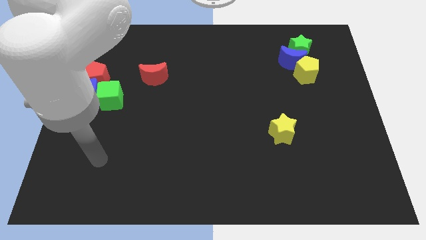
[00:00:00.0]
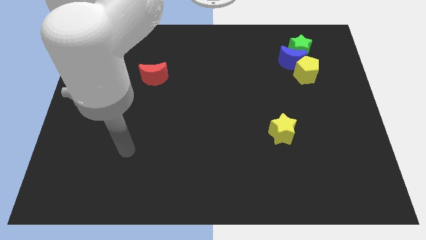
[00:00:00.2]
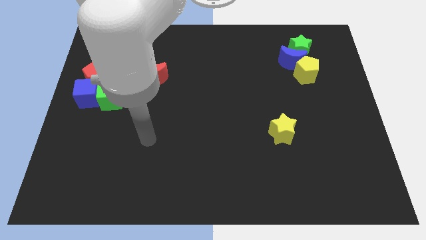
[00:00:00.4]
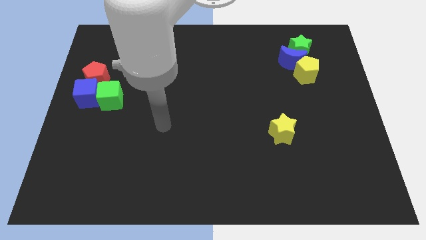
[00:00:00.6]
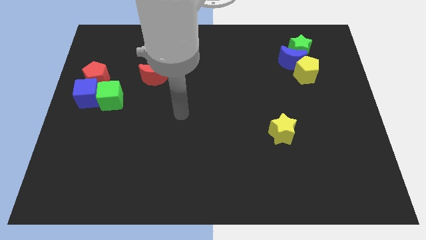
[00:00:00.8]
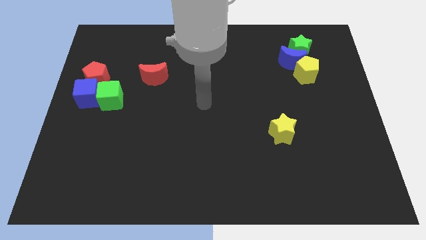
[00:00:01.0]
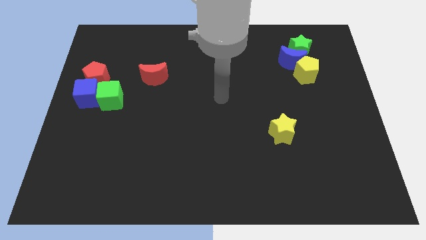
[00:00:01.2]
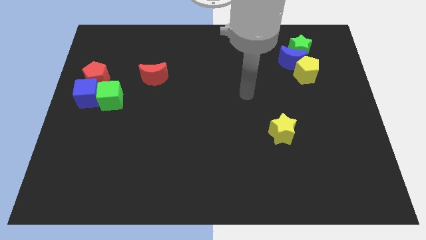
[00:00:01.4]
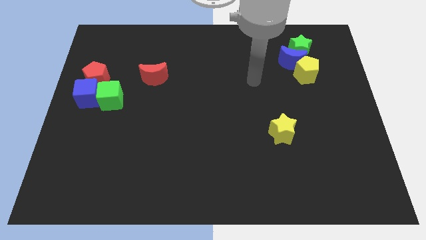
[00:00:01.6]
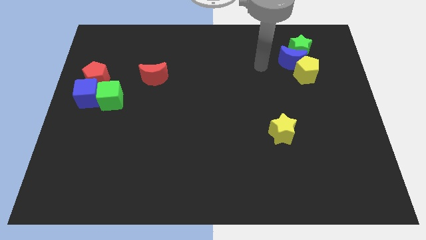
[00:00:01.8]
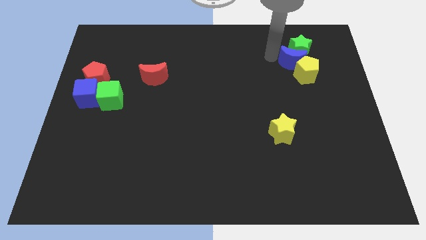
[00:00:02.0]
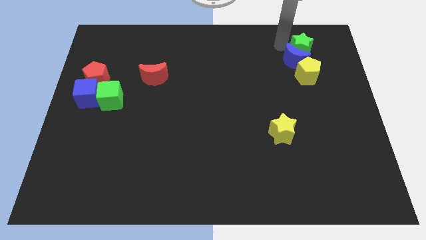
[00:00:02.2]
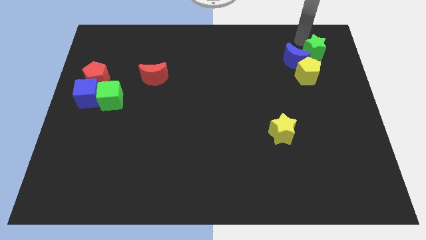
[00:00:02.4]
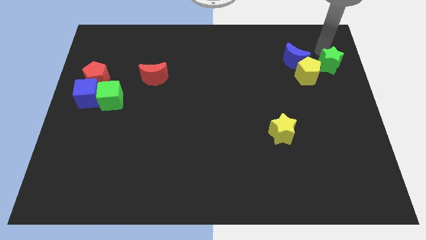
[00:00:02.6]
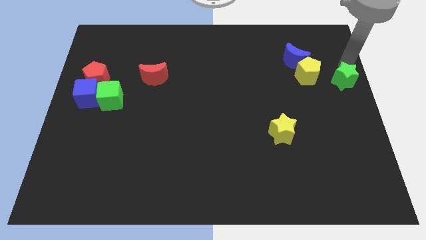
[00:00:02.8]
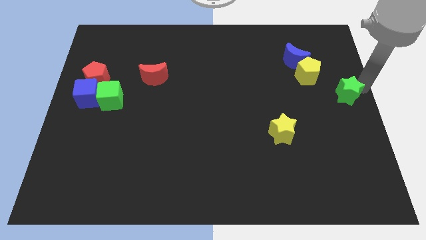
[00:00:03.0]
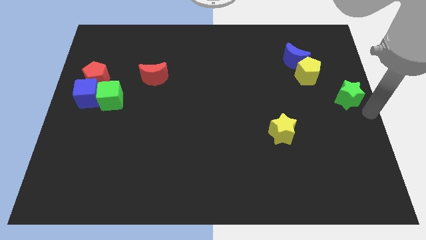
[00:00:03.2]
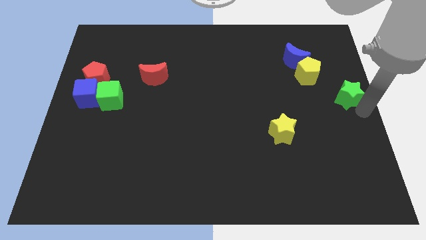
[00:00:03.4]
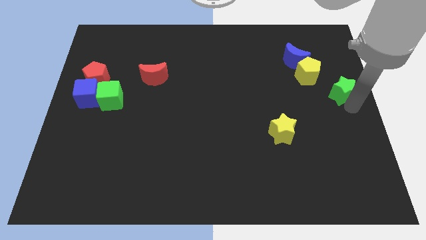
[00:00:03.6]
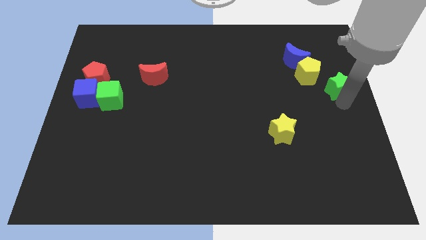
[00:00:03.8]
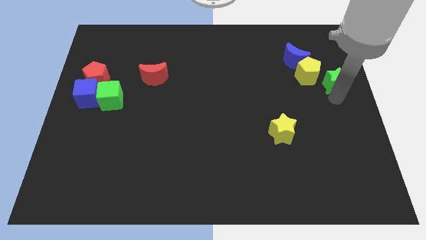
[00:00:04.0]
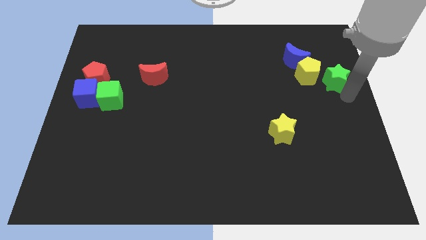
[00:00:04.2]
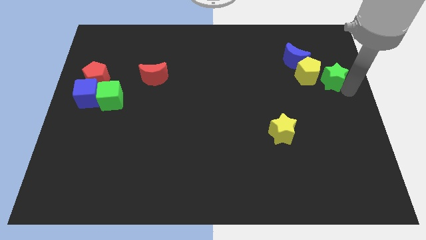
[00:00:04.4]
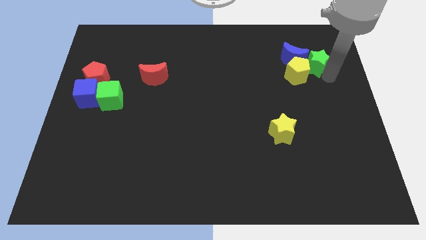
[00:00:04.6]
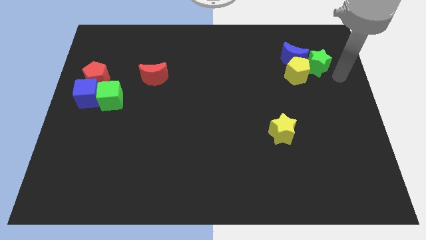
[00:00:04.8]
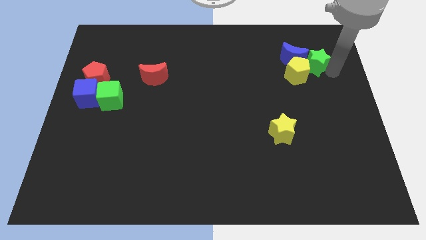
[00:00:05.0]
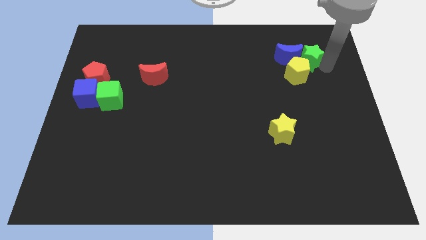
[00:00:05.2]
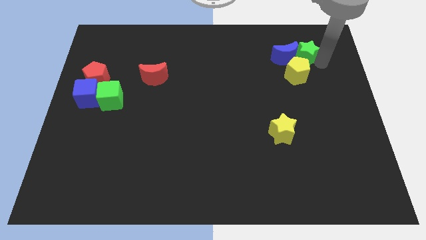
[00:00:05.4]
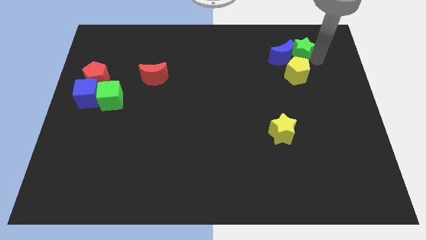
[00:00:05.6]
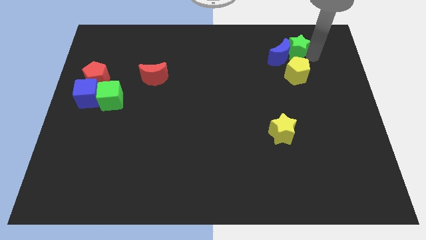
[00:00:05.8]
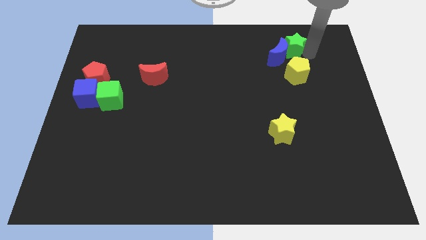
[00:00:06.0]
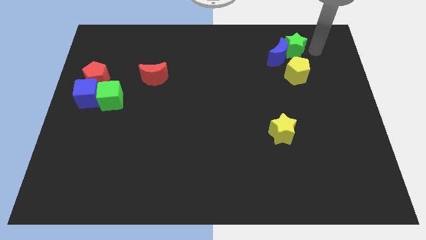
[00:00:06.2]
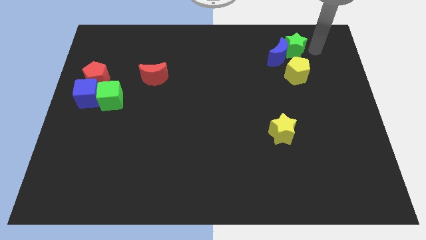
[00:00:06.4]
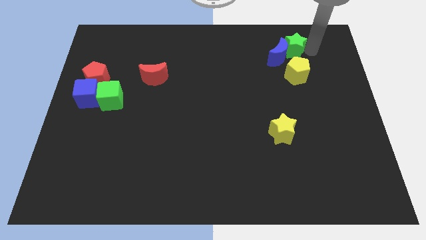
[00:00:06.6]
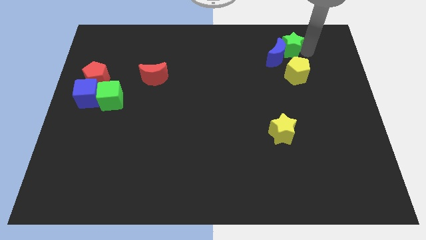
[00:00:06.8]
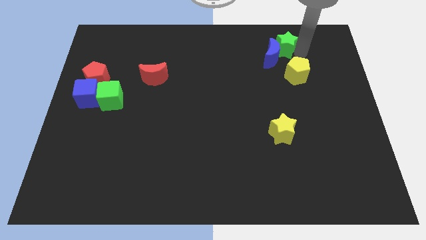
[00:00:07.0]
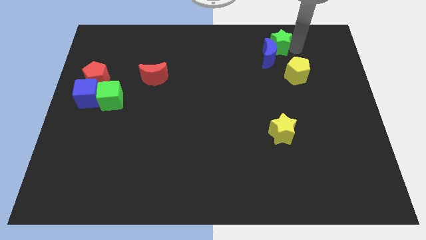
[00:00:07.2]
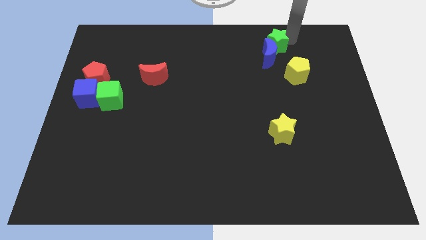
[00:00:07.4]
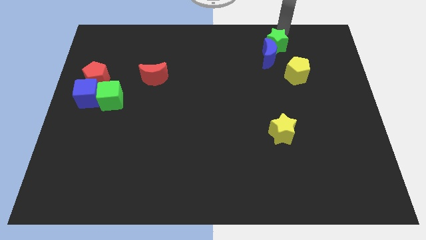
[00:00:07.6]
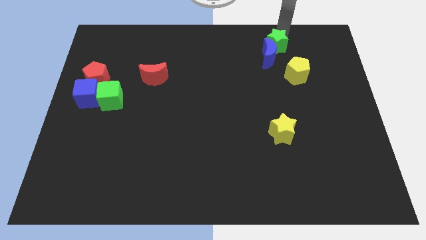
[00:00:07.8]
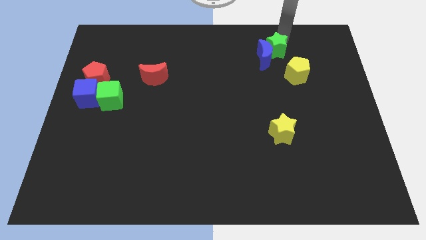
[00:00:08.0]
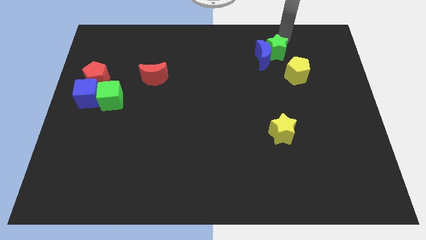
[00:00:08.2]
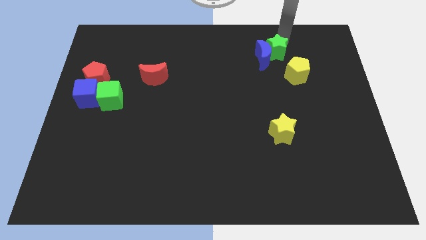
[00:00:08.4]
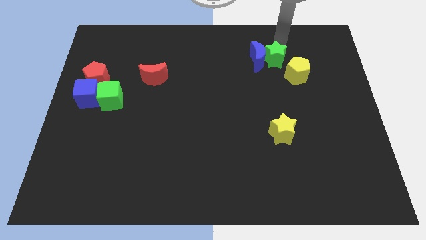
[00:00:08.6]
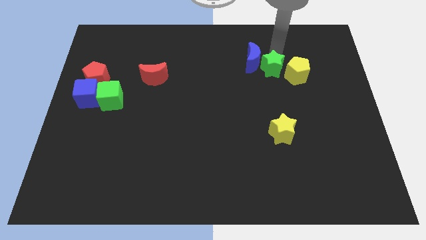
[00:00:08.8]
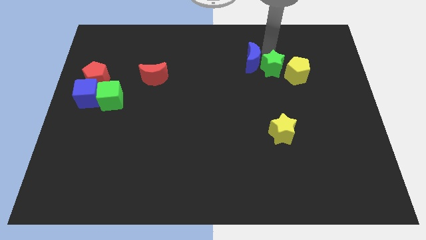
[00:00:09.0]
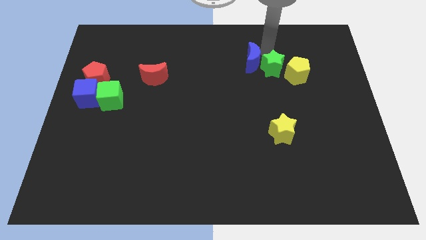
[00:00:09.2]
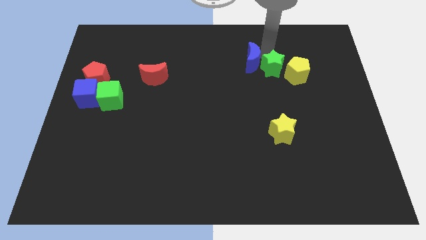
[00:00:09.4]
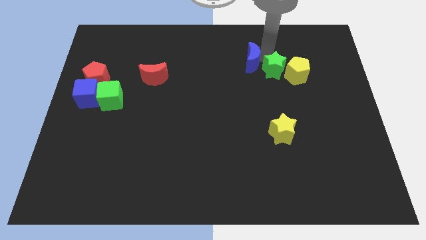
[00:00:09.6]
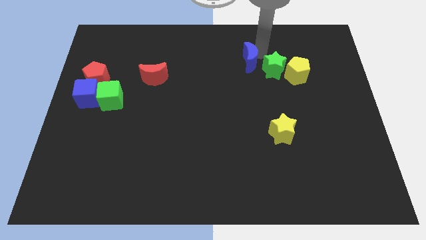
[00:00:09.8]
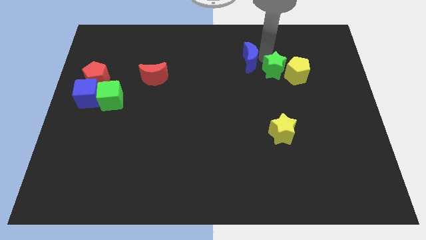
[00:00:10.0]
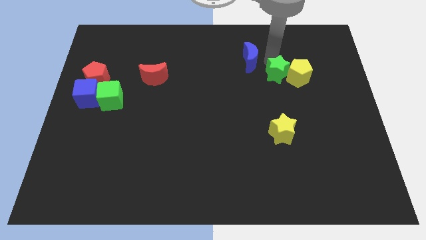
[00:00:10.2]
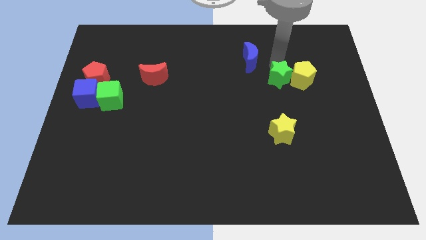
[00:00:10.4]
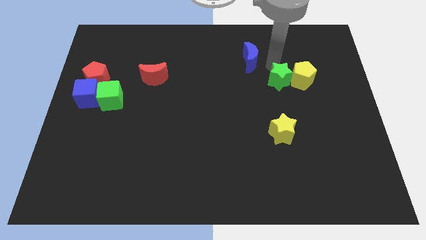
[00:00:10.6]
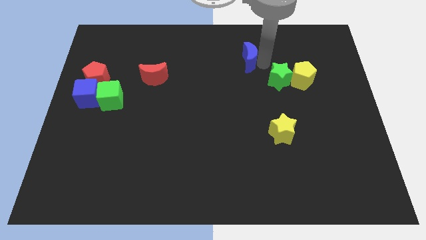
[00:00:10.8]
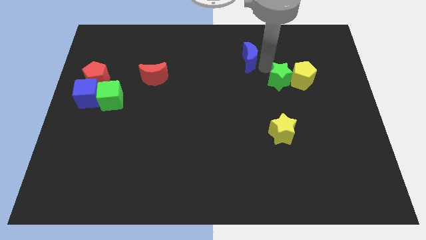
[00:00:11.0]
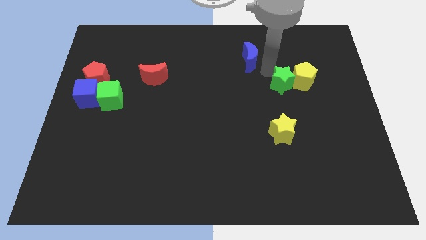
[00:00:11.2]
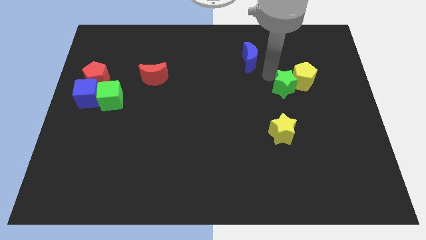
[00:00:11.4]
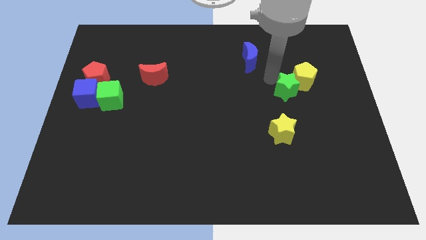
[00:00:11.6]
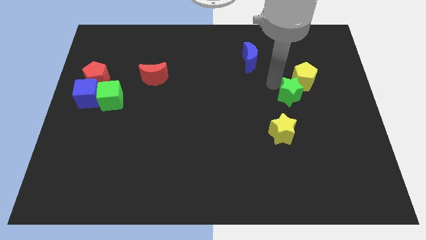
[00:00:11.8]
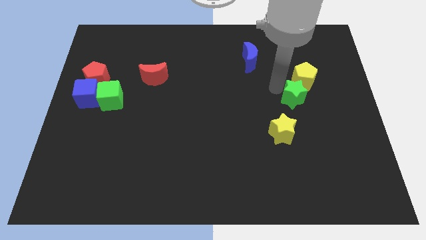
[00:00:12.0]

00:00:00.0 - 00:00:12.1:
put the green star to the top right of the yellow star

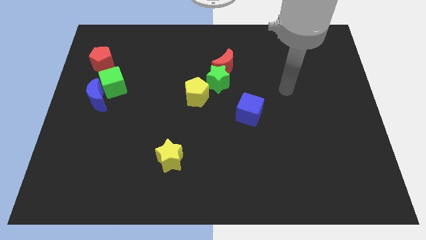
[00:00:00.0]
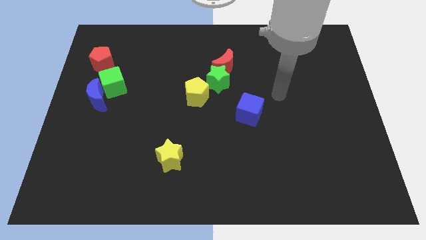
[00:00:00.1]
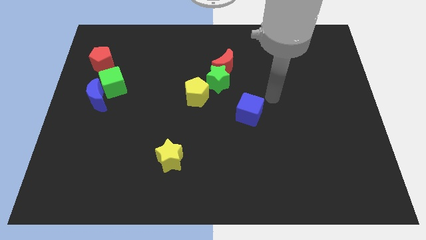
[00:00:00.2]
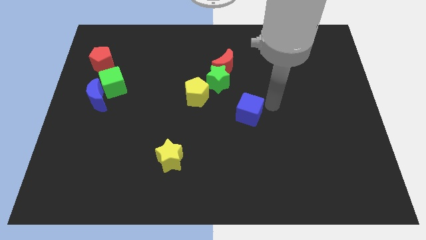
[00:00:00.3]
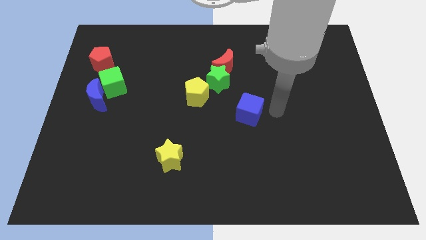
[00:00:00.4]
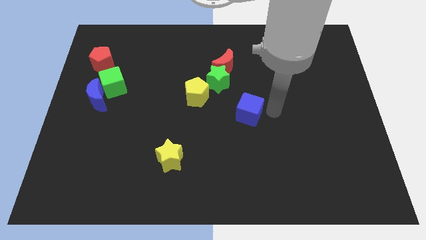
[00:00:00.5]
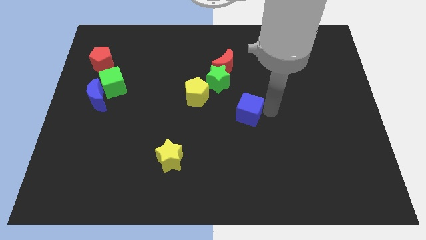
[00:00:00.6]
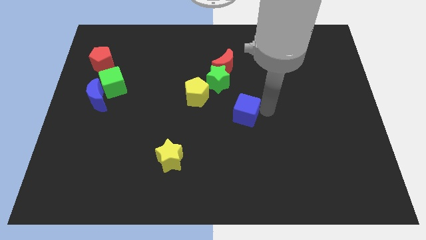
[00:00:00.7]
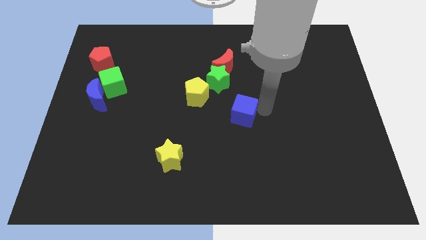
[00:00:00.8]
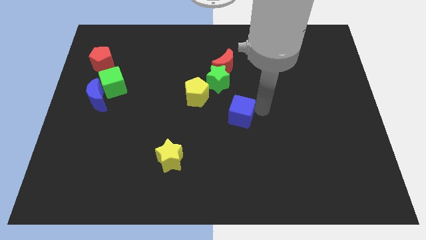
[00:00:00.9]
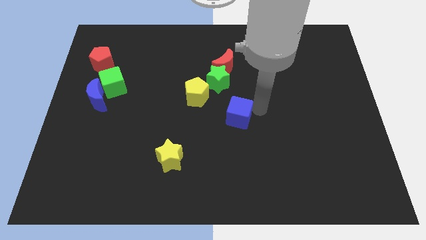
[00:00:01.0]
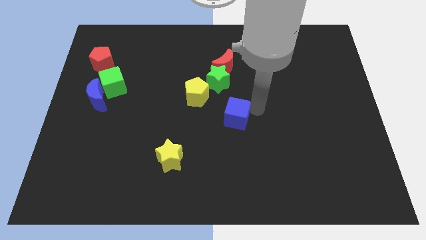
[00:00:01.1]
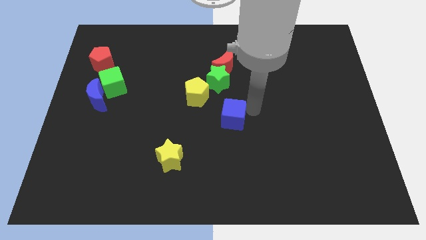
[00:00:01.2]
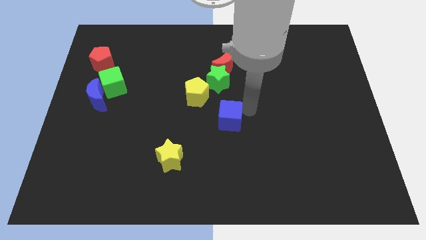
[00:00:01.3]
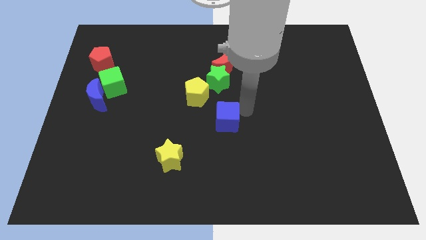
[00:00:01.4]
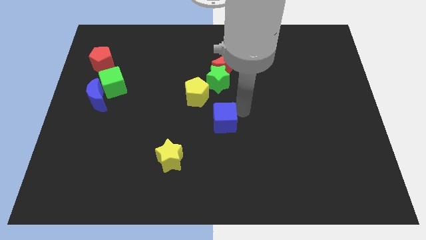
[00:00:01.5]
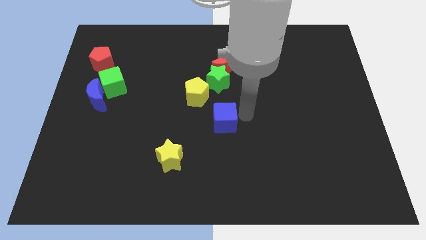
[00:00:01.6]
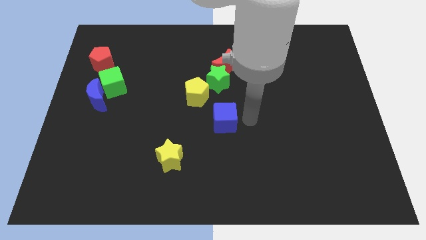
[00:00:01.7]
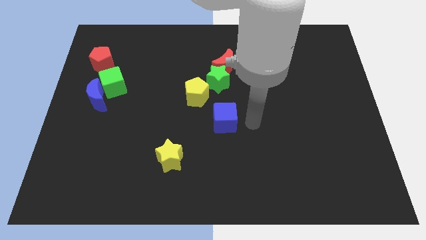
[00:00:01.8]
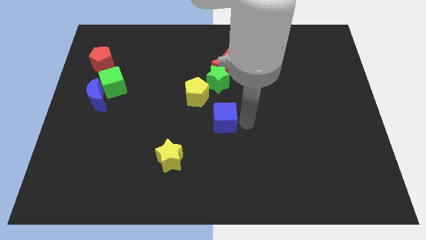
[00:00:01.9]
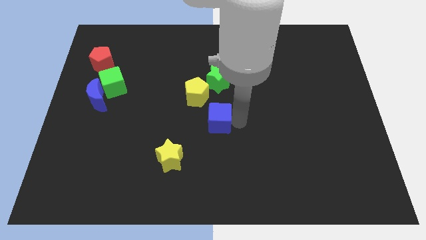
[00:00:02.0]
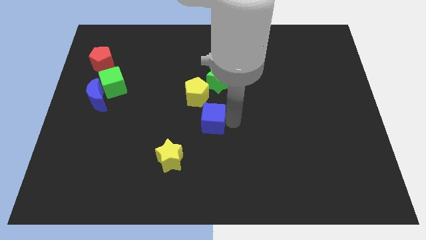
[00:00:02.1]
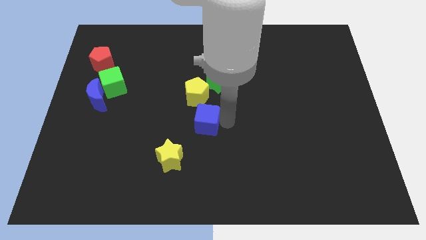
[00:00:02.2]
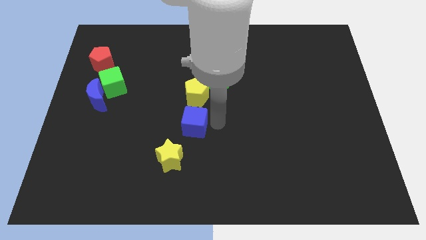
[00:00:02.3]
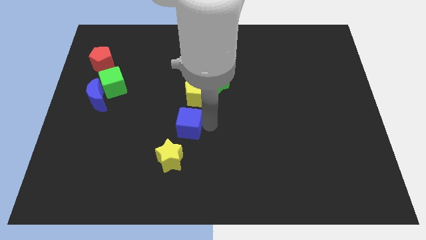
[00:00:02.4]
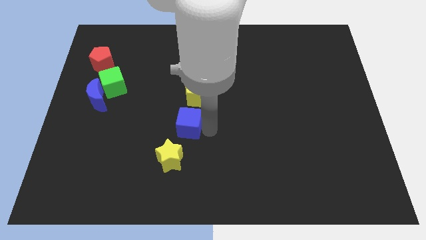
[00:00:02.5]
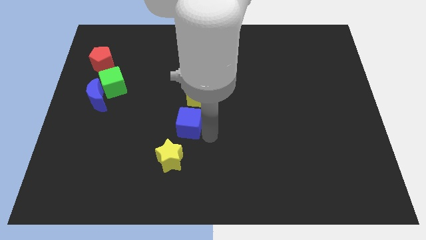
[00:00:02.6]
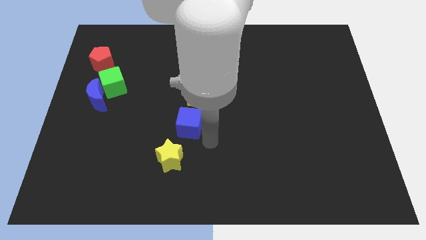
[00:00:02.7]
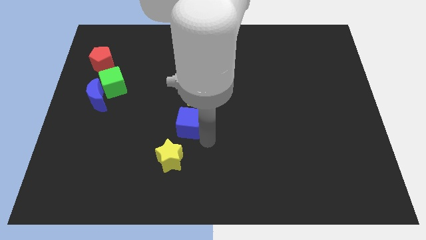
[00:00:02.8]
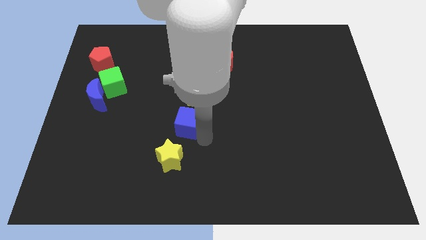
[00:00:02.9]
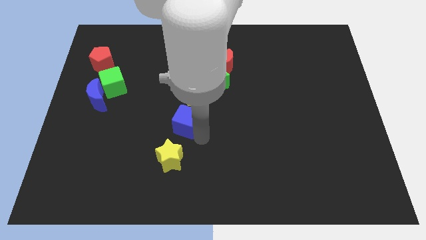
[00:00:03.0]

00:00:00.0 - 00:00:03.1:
move the blue cube to the bottom left of the yellow pentagon
